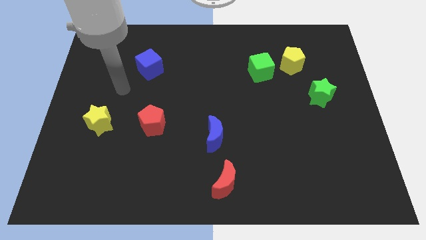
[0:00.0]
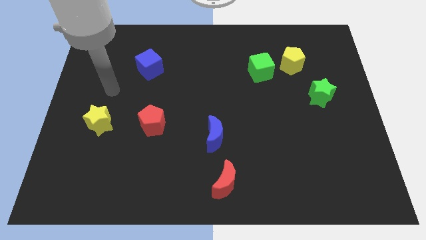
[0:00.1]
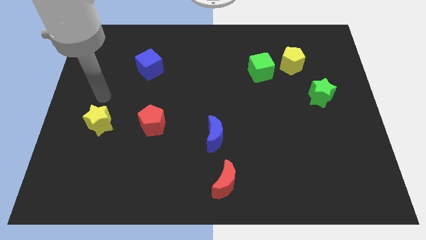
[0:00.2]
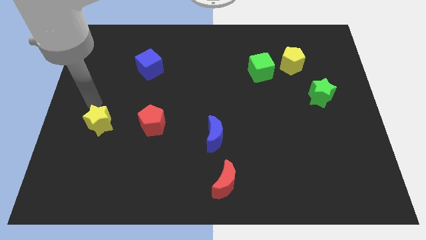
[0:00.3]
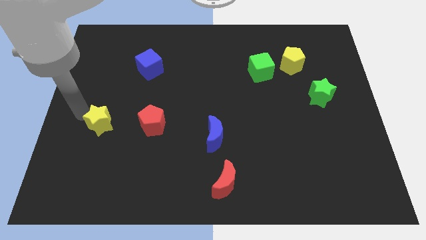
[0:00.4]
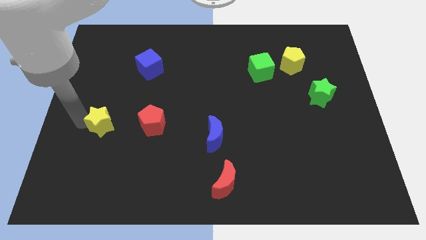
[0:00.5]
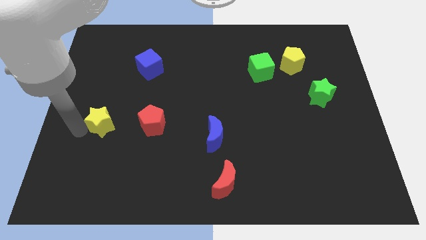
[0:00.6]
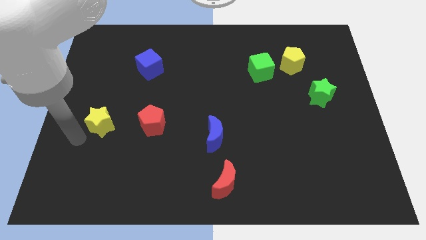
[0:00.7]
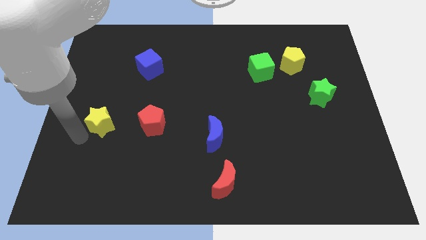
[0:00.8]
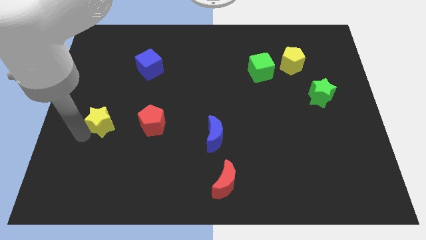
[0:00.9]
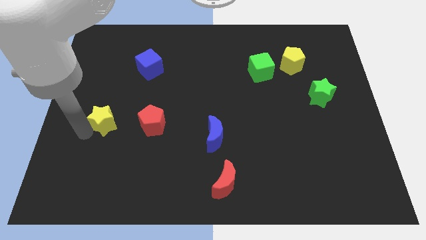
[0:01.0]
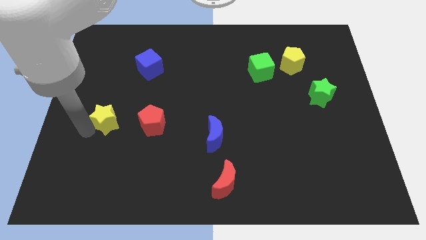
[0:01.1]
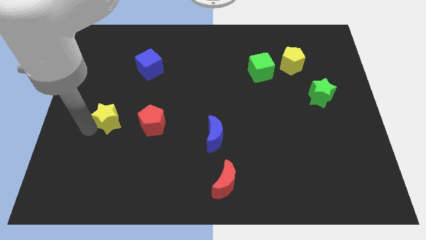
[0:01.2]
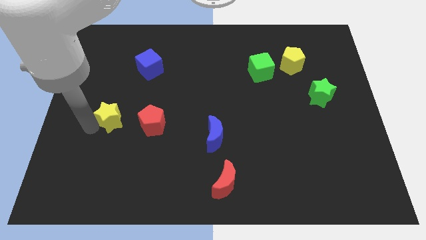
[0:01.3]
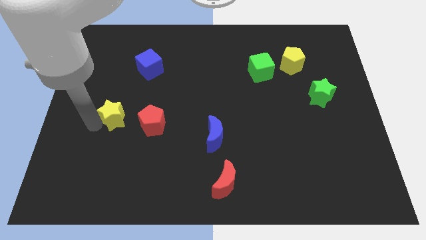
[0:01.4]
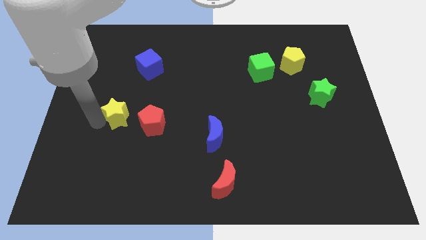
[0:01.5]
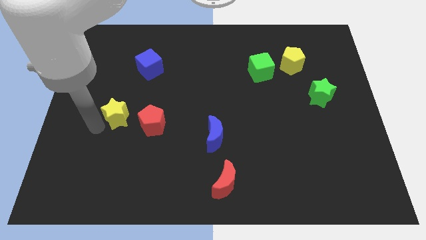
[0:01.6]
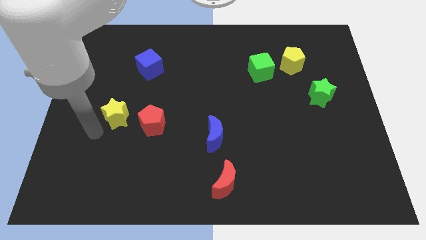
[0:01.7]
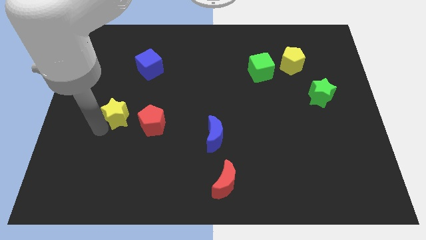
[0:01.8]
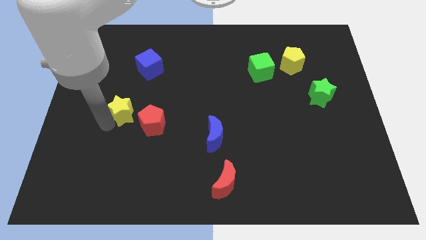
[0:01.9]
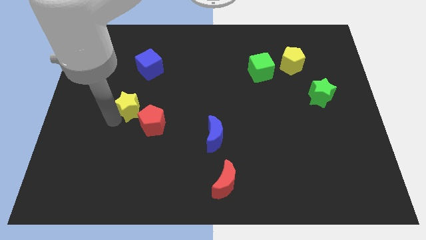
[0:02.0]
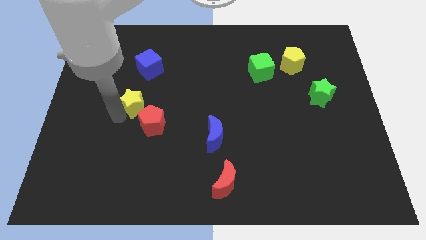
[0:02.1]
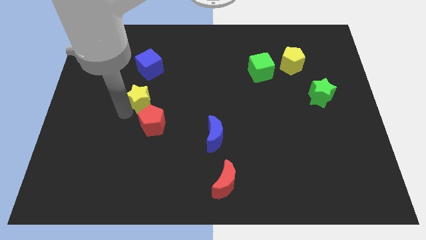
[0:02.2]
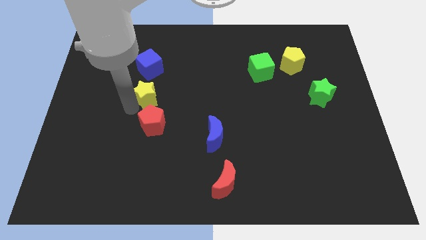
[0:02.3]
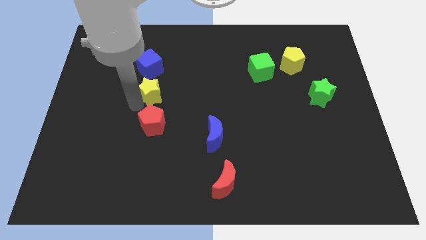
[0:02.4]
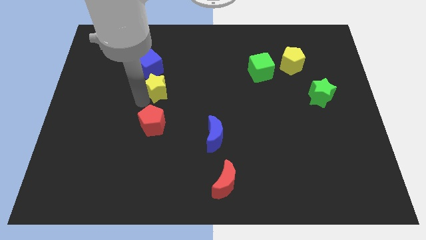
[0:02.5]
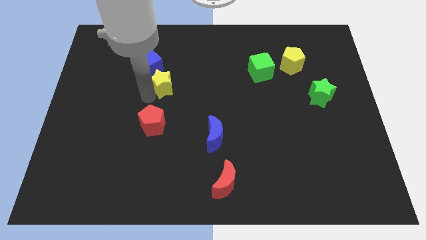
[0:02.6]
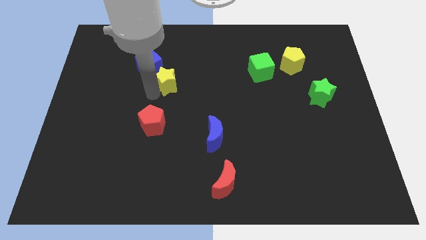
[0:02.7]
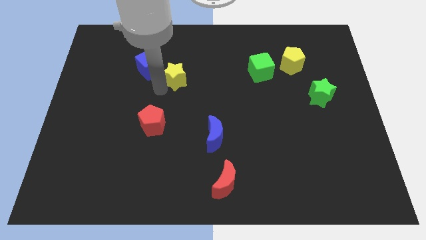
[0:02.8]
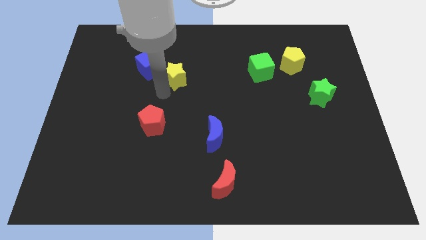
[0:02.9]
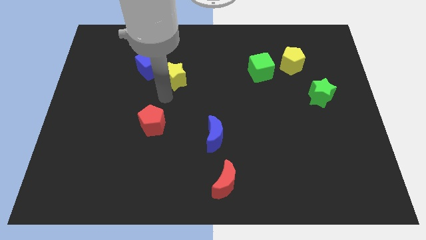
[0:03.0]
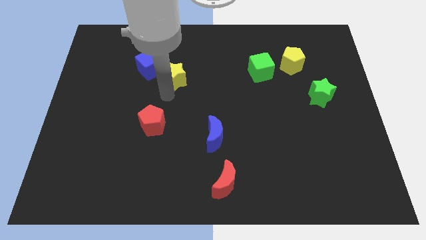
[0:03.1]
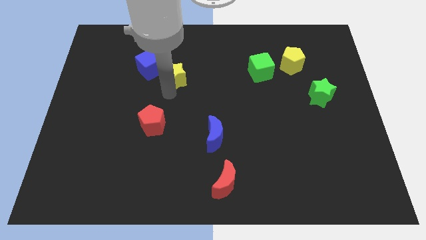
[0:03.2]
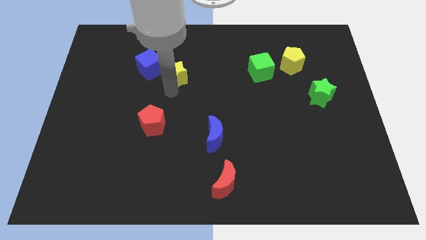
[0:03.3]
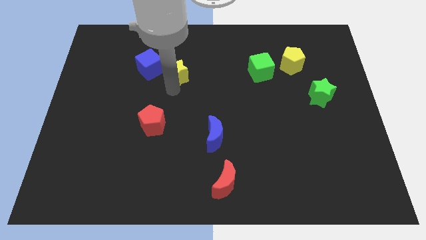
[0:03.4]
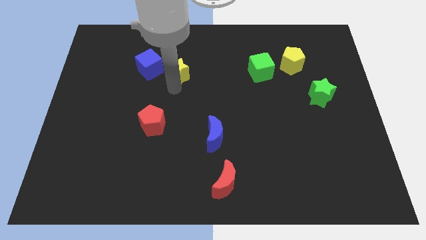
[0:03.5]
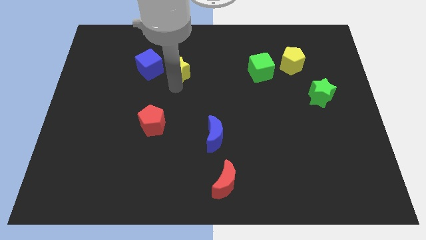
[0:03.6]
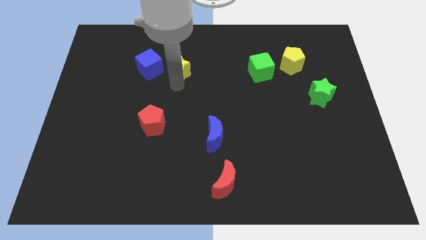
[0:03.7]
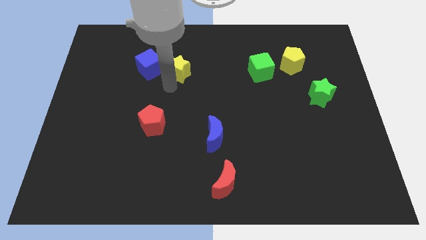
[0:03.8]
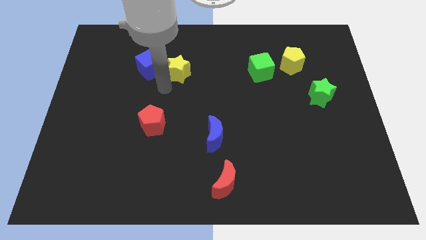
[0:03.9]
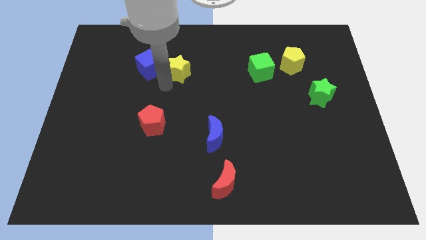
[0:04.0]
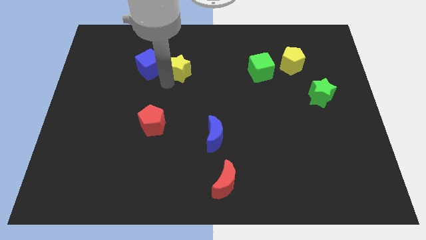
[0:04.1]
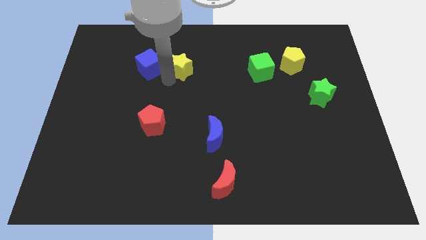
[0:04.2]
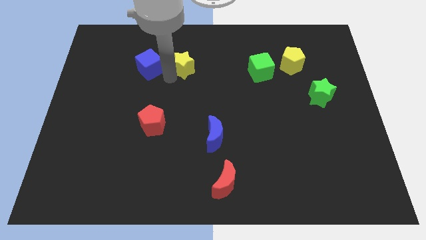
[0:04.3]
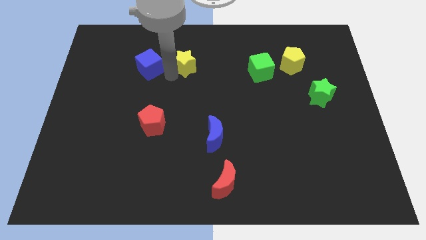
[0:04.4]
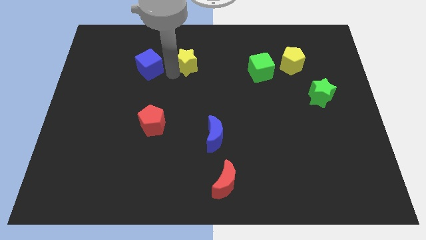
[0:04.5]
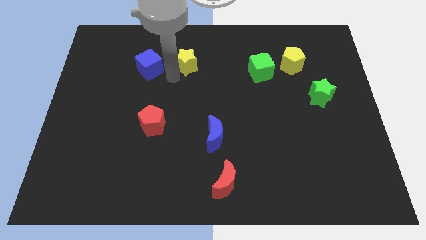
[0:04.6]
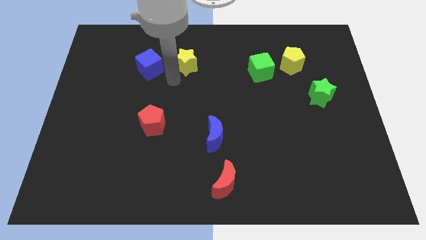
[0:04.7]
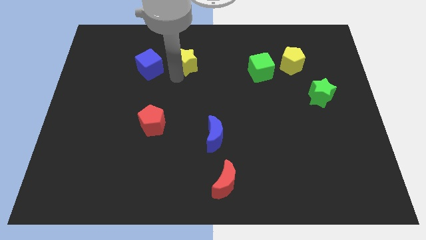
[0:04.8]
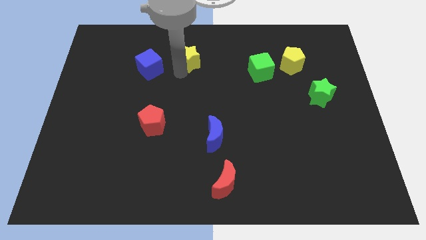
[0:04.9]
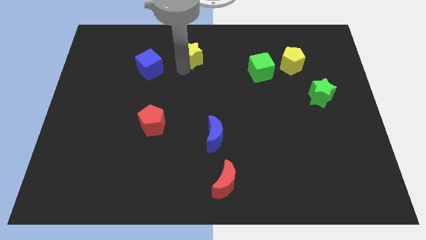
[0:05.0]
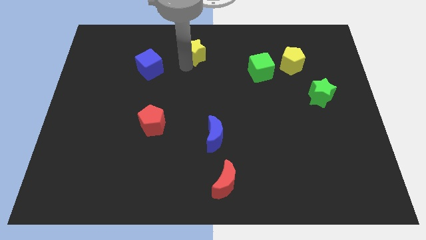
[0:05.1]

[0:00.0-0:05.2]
push the yellow star to the top

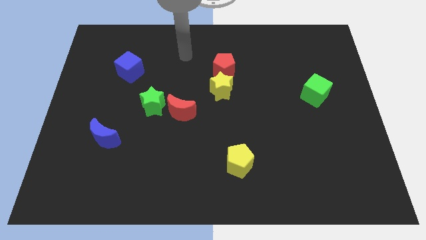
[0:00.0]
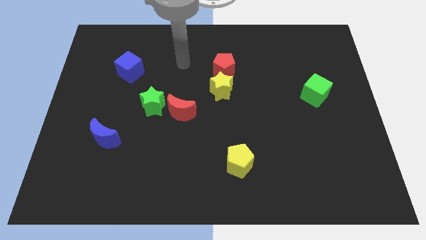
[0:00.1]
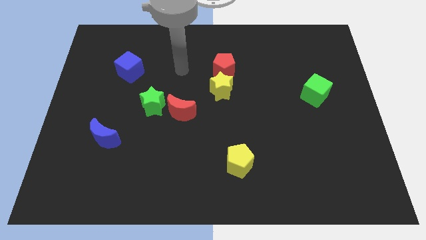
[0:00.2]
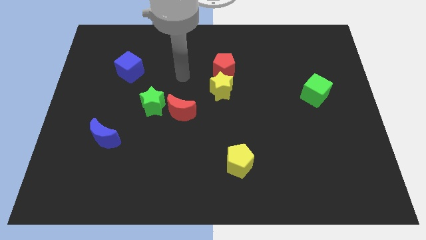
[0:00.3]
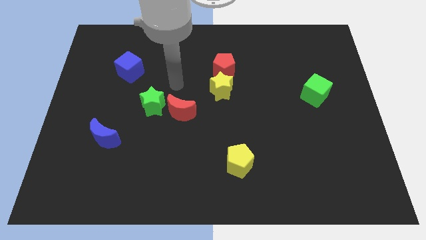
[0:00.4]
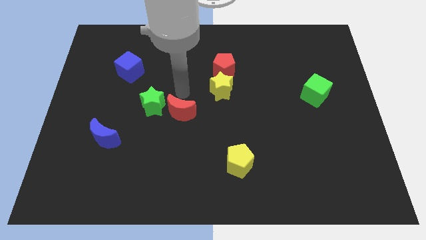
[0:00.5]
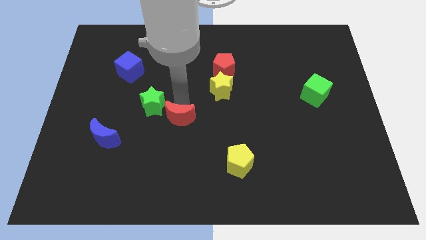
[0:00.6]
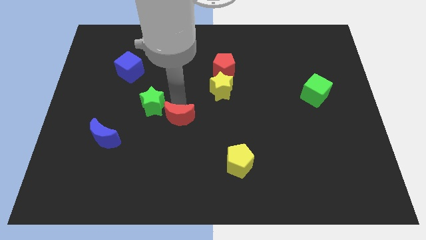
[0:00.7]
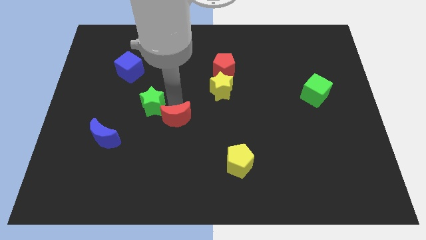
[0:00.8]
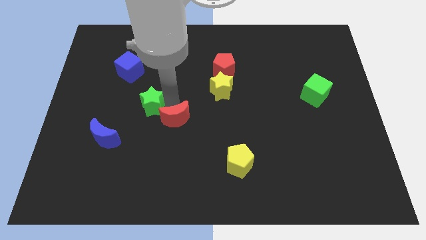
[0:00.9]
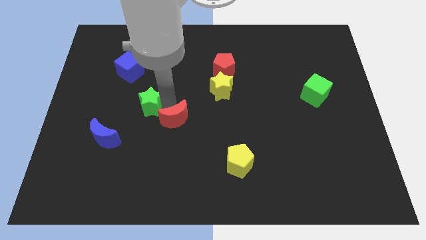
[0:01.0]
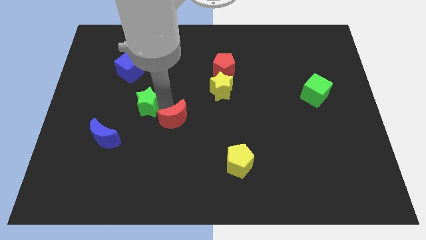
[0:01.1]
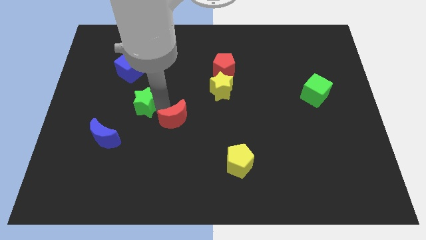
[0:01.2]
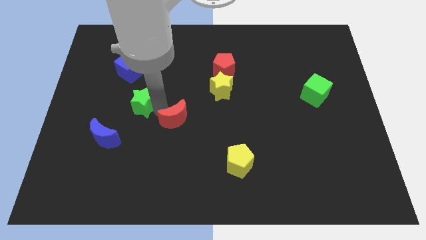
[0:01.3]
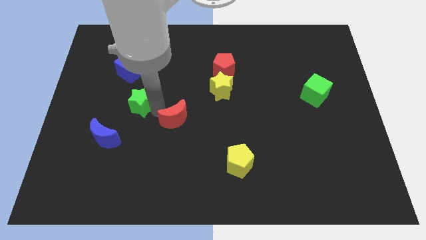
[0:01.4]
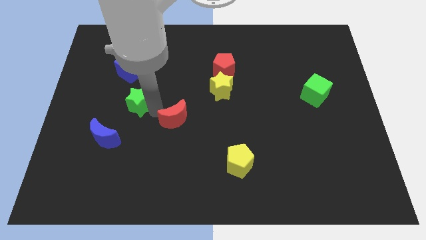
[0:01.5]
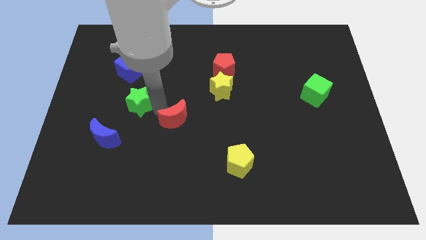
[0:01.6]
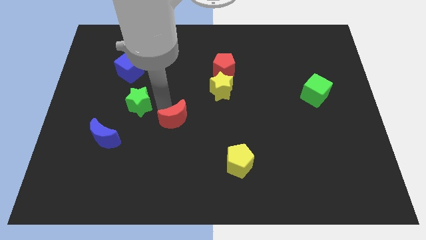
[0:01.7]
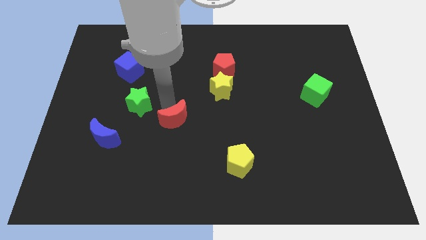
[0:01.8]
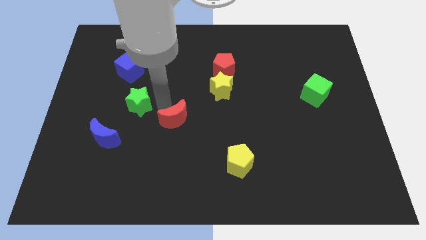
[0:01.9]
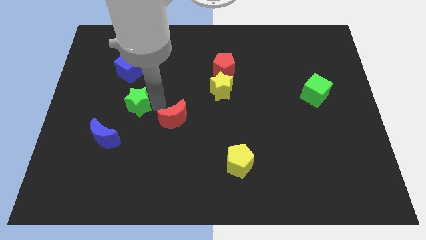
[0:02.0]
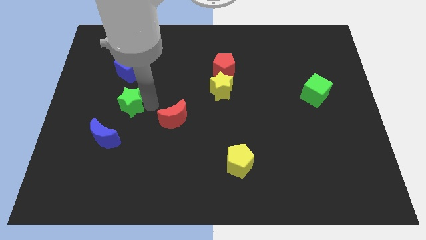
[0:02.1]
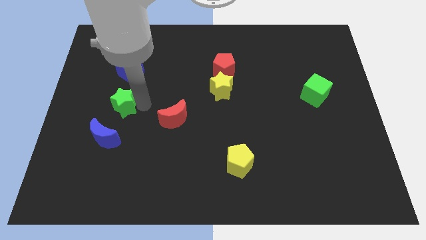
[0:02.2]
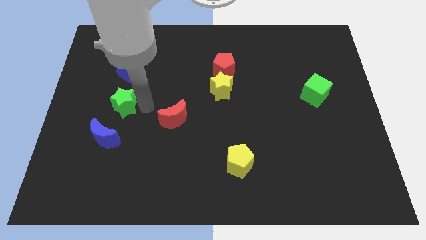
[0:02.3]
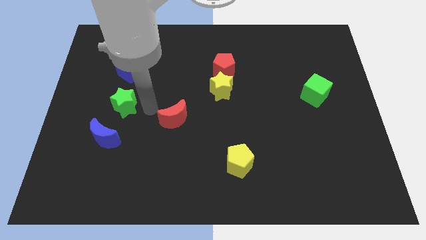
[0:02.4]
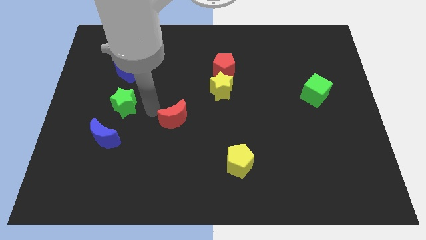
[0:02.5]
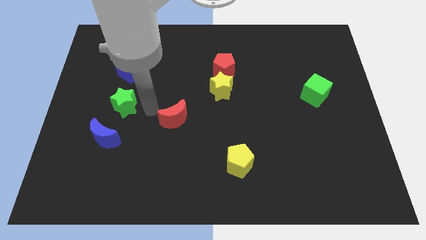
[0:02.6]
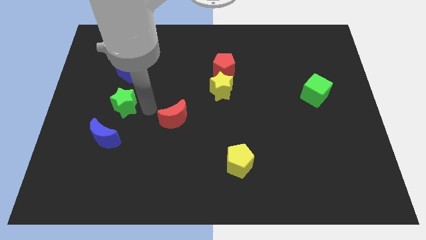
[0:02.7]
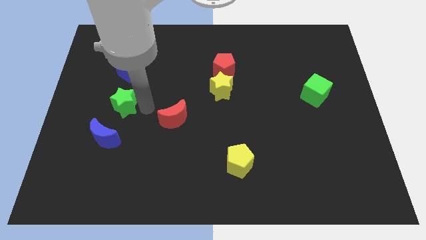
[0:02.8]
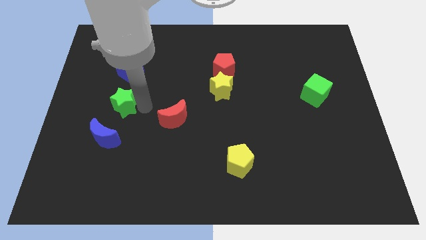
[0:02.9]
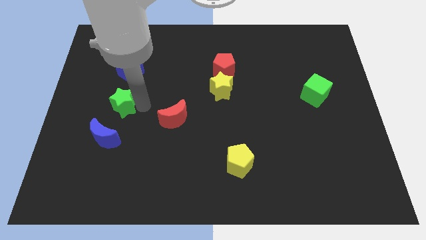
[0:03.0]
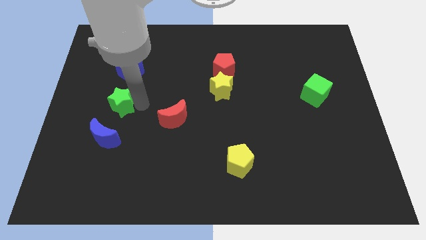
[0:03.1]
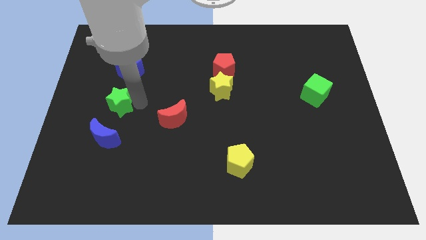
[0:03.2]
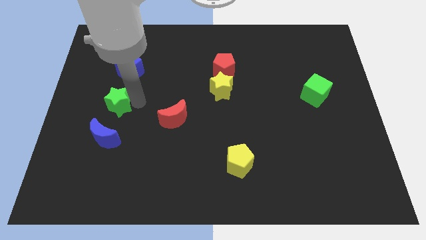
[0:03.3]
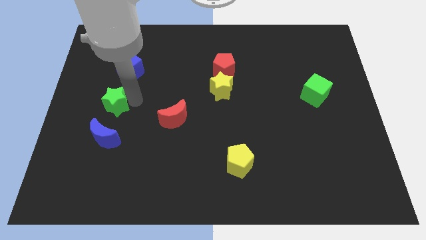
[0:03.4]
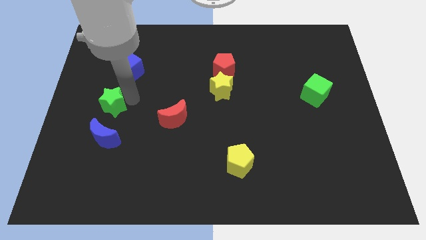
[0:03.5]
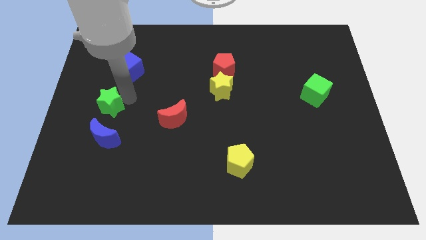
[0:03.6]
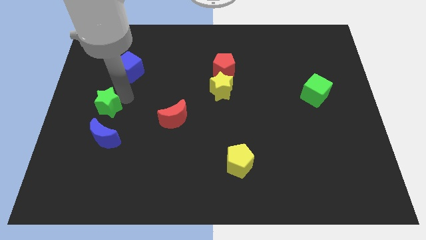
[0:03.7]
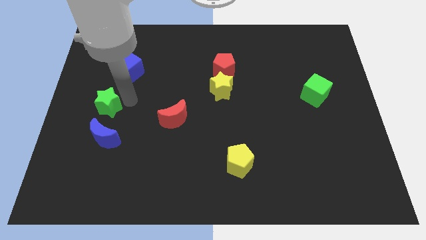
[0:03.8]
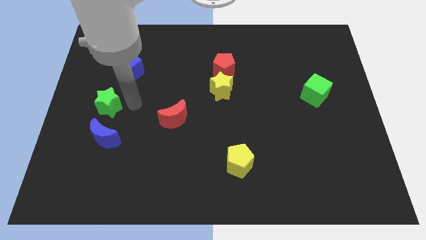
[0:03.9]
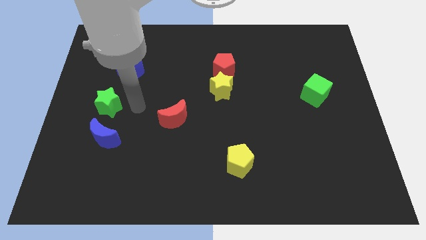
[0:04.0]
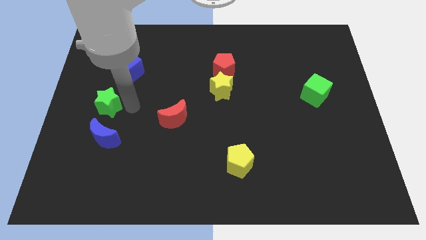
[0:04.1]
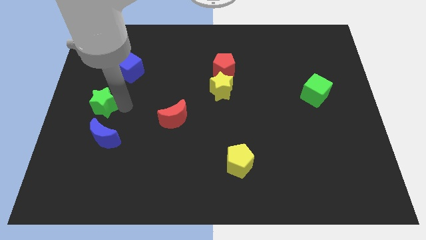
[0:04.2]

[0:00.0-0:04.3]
move the green star to the center left
